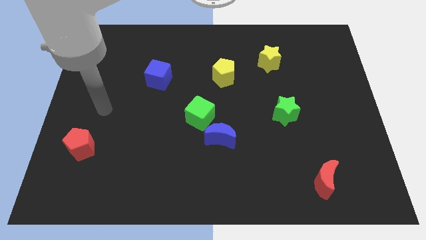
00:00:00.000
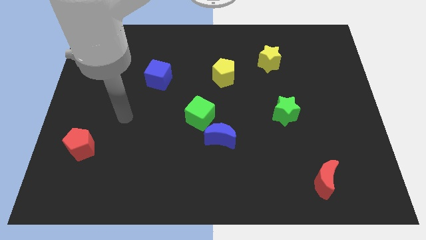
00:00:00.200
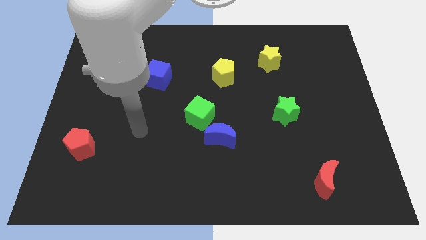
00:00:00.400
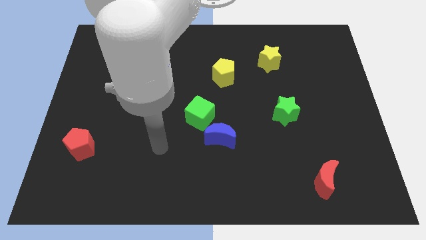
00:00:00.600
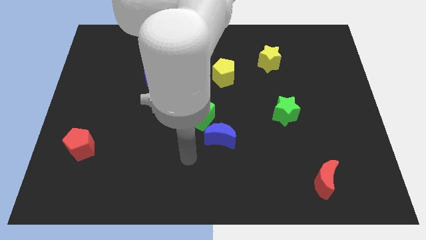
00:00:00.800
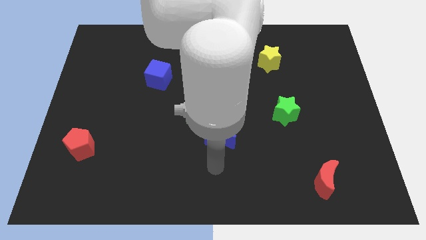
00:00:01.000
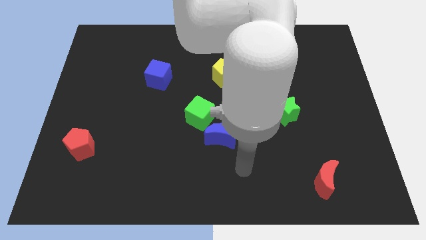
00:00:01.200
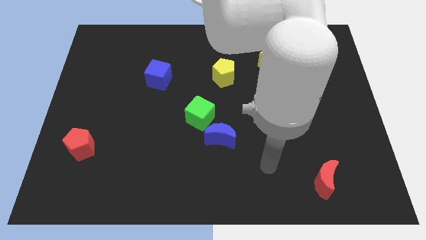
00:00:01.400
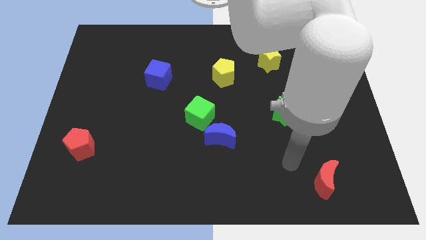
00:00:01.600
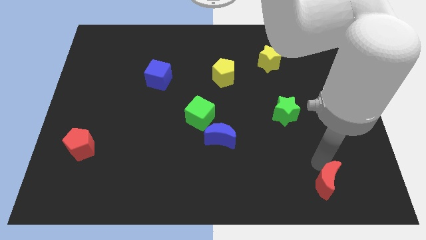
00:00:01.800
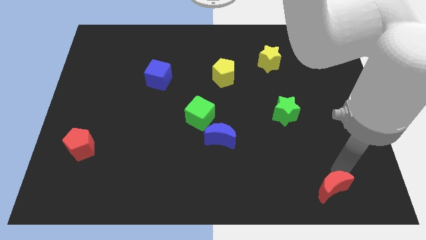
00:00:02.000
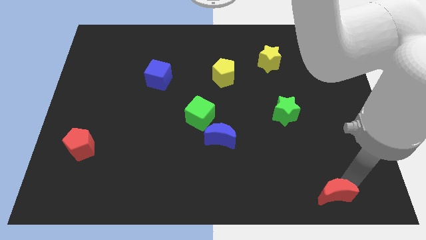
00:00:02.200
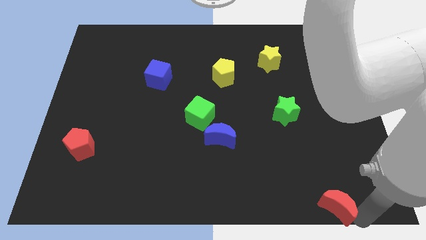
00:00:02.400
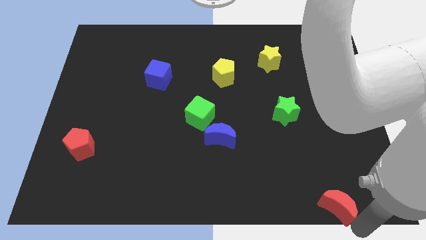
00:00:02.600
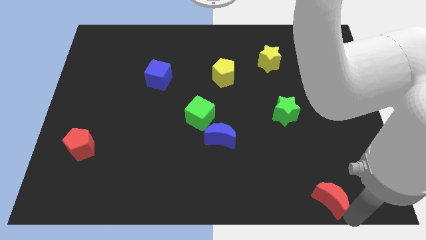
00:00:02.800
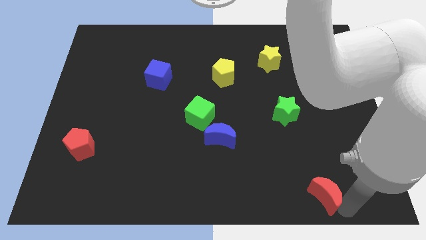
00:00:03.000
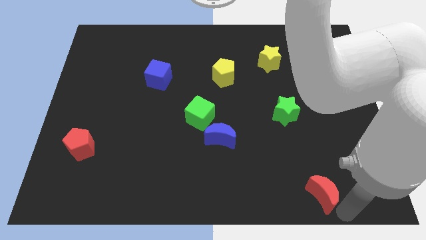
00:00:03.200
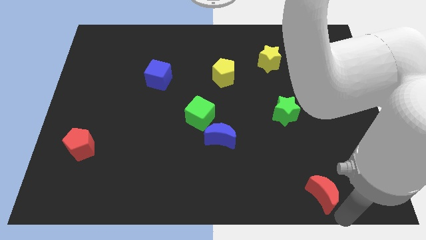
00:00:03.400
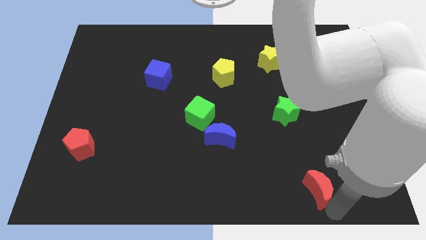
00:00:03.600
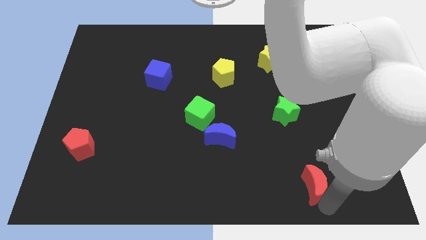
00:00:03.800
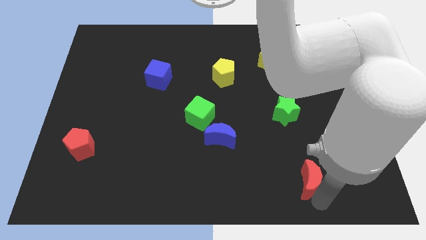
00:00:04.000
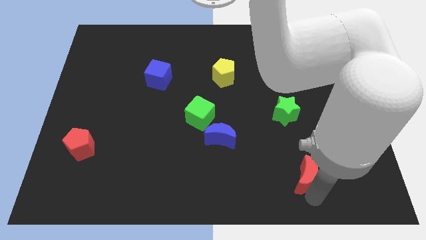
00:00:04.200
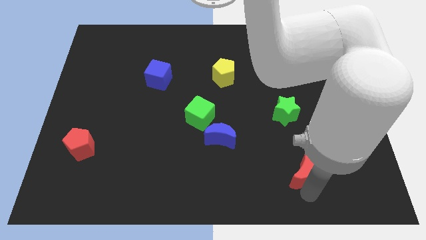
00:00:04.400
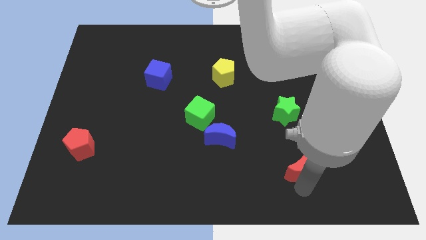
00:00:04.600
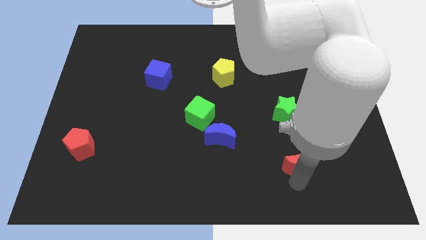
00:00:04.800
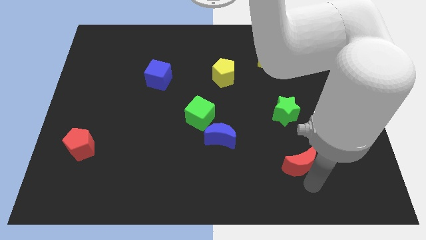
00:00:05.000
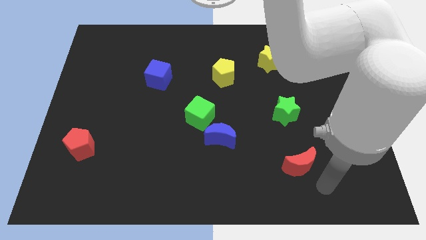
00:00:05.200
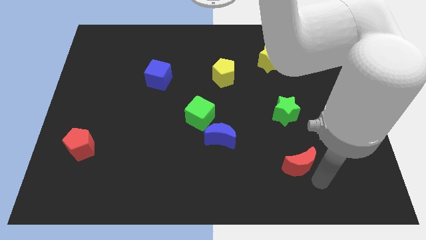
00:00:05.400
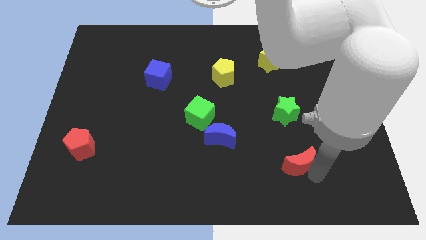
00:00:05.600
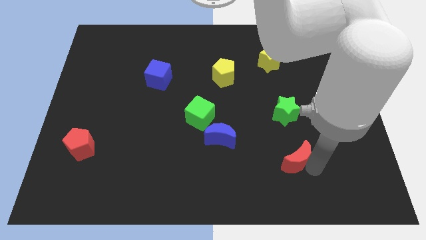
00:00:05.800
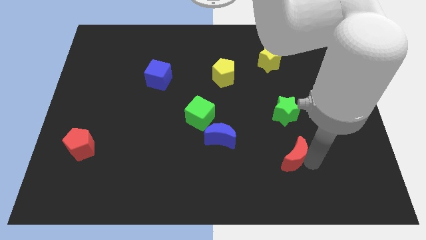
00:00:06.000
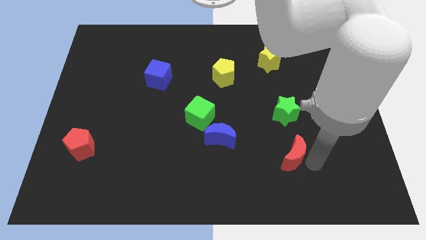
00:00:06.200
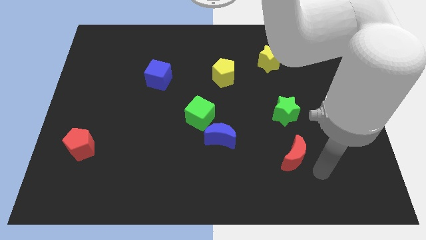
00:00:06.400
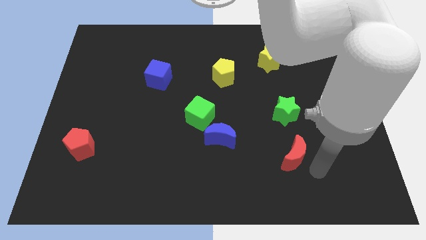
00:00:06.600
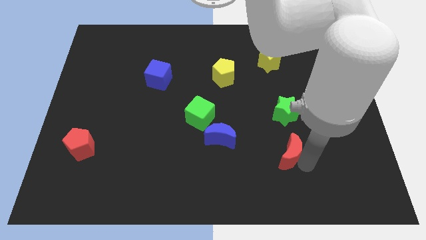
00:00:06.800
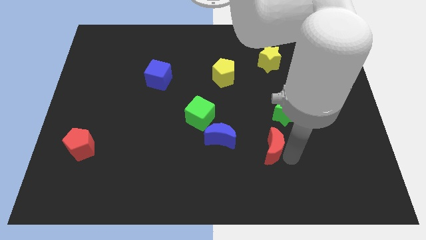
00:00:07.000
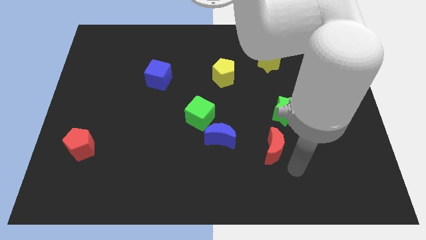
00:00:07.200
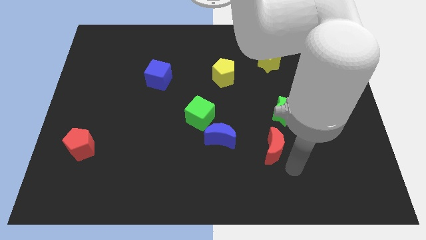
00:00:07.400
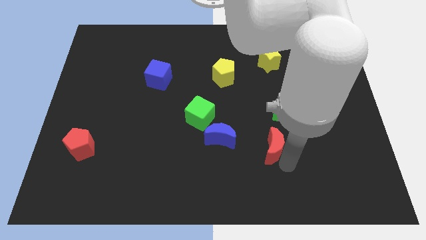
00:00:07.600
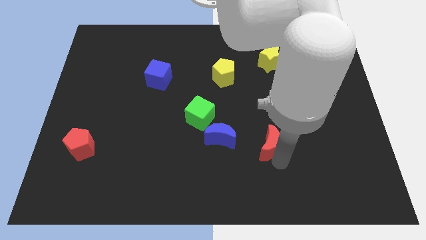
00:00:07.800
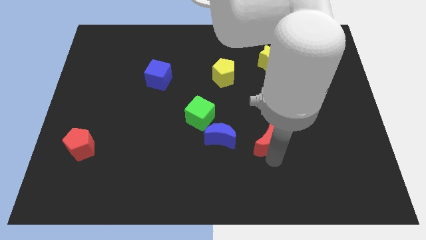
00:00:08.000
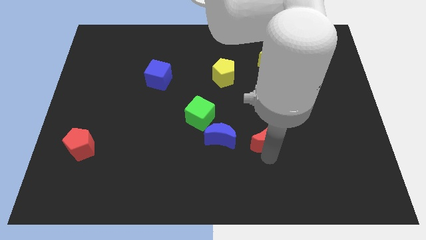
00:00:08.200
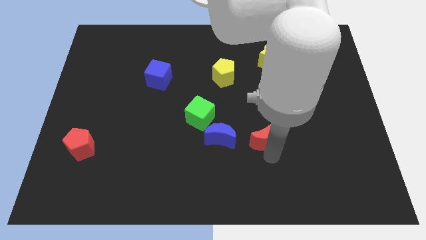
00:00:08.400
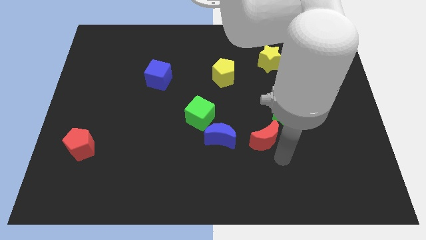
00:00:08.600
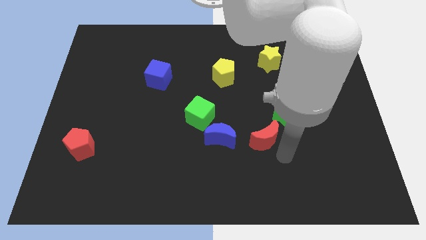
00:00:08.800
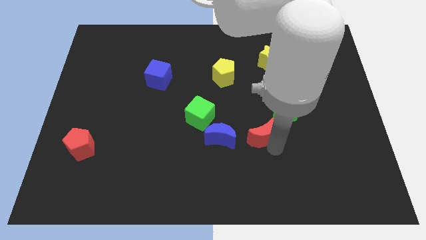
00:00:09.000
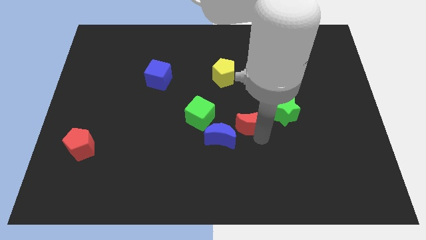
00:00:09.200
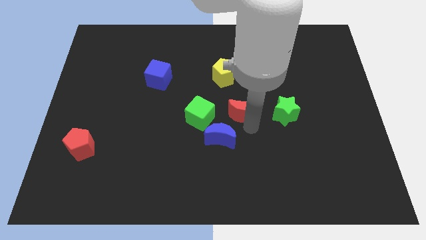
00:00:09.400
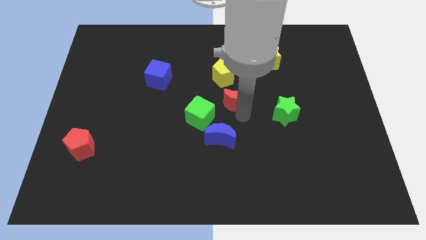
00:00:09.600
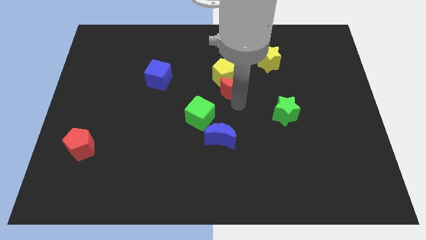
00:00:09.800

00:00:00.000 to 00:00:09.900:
slide the red moon to the yellow pentagon

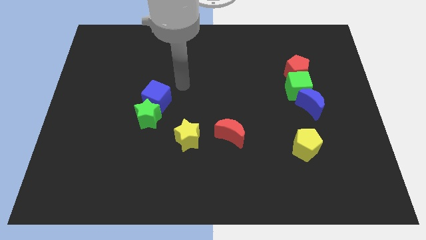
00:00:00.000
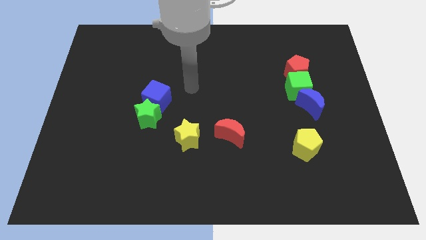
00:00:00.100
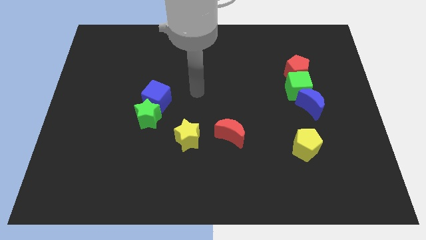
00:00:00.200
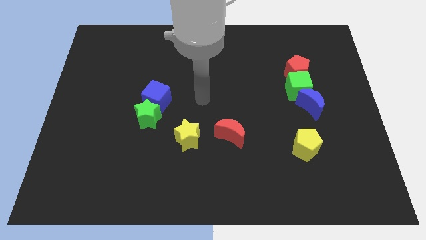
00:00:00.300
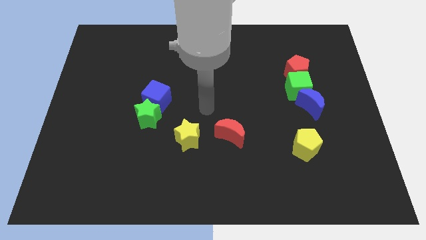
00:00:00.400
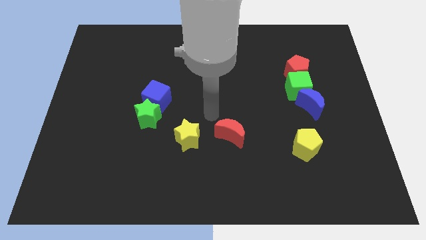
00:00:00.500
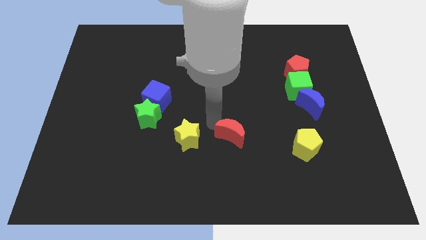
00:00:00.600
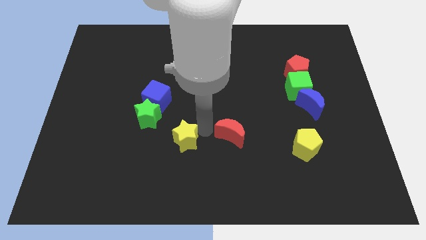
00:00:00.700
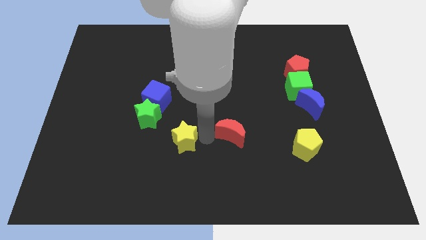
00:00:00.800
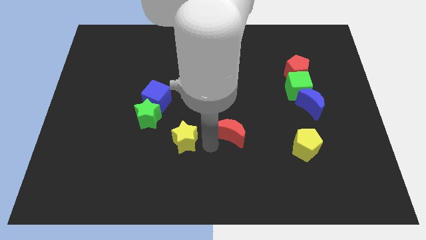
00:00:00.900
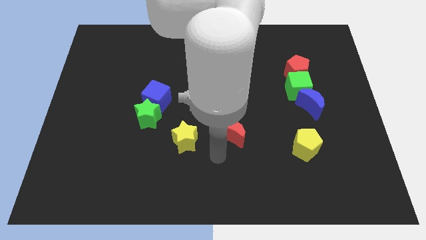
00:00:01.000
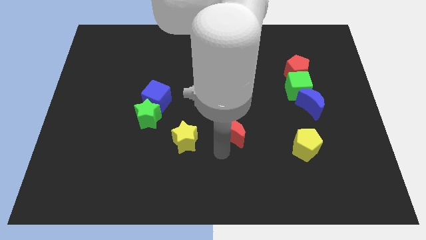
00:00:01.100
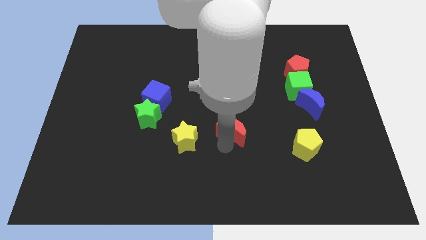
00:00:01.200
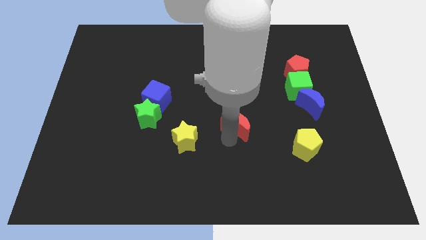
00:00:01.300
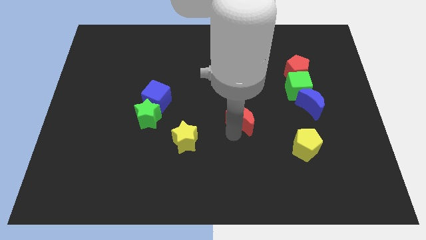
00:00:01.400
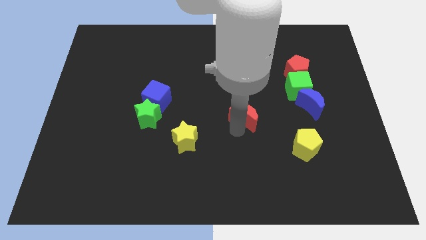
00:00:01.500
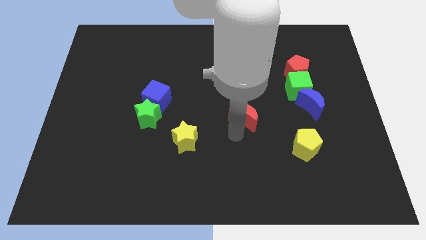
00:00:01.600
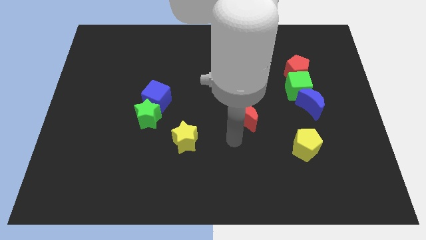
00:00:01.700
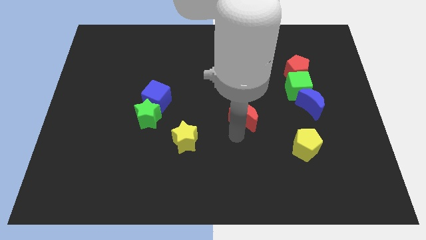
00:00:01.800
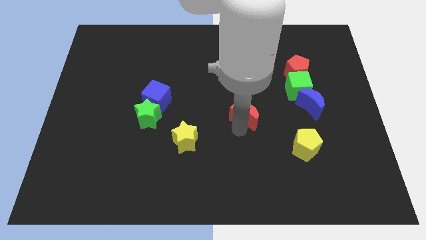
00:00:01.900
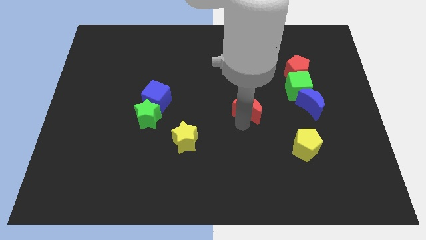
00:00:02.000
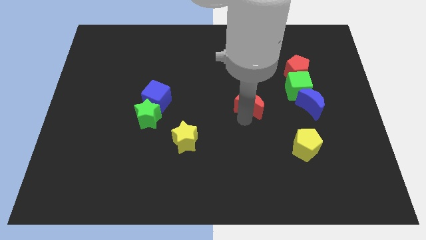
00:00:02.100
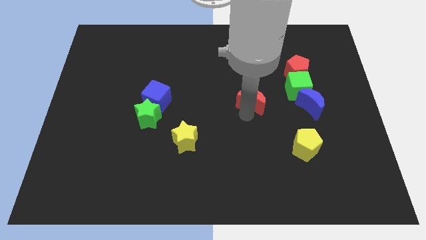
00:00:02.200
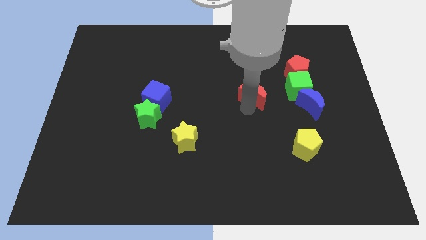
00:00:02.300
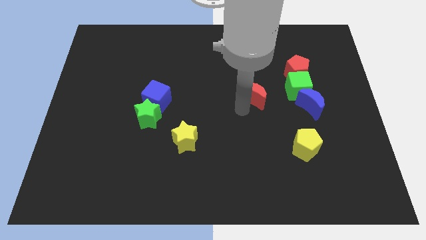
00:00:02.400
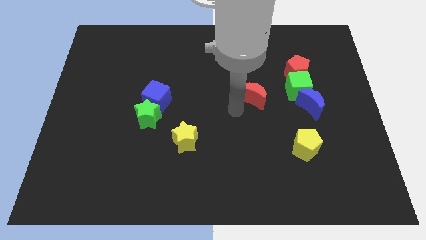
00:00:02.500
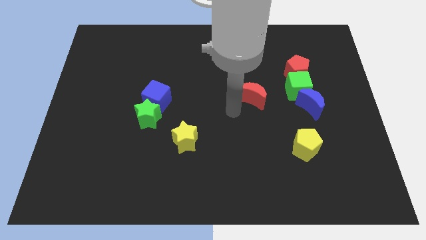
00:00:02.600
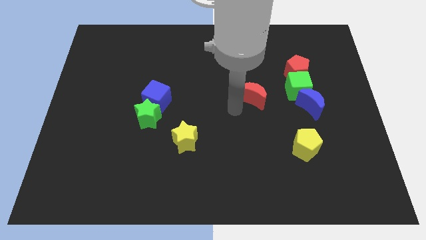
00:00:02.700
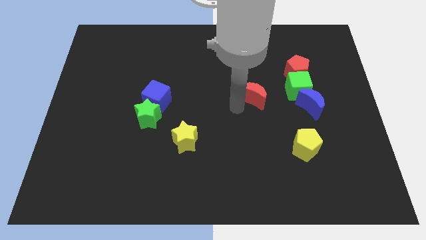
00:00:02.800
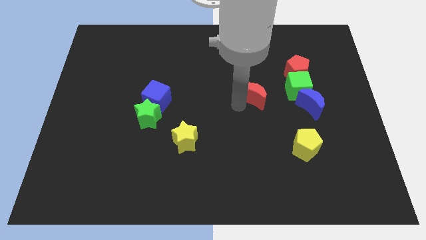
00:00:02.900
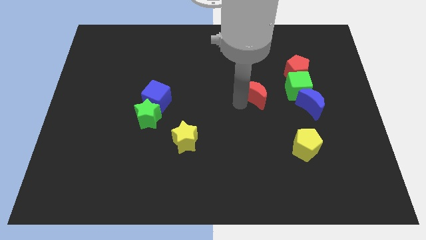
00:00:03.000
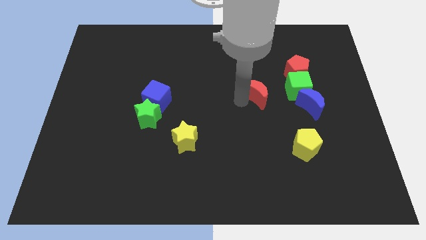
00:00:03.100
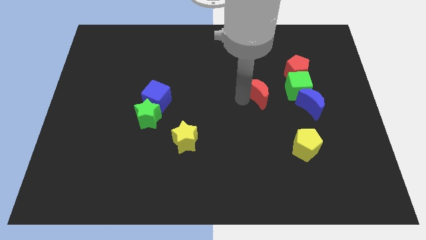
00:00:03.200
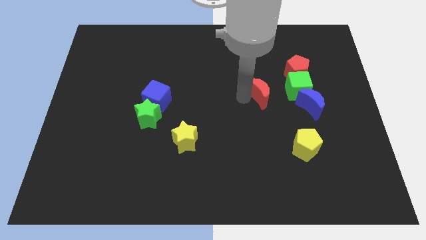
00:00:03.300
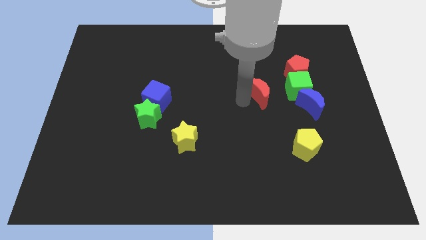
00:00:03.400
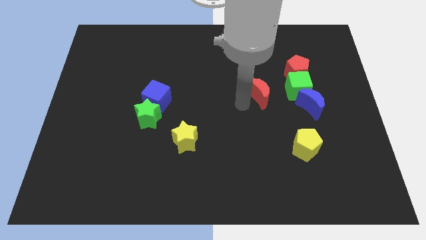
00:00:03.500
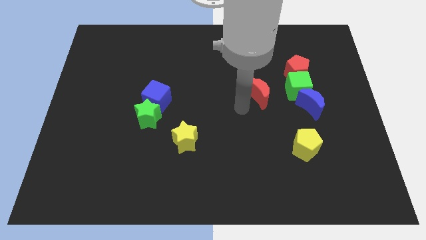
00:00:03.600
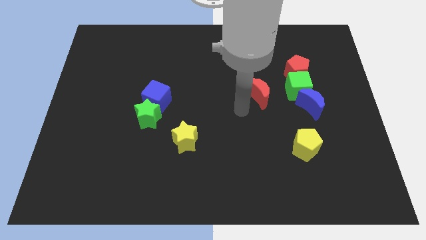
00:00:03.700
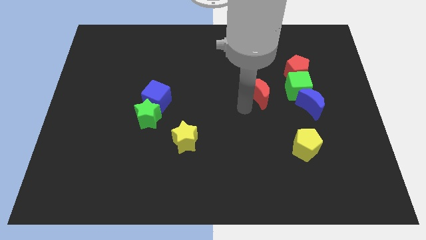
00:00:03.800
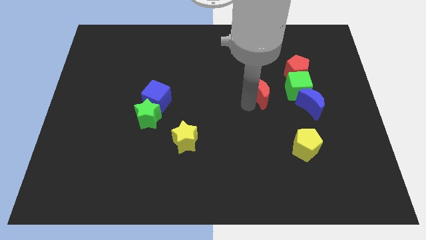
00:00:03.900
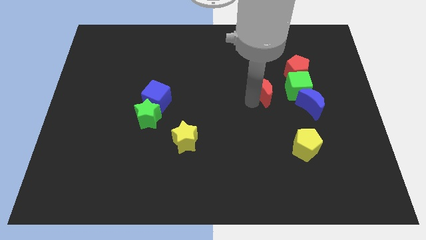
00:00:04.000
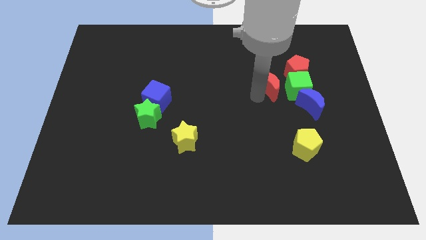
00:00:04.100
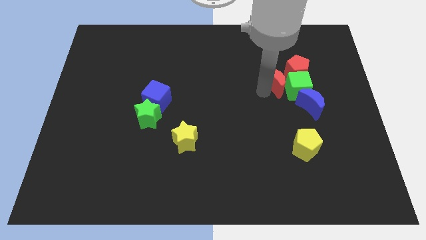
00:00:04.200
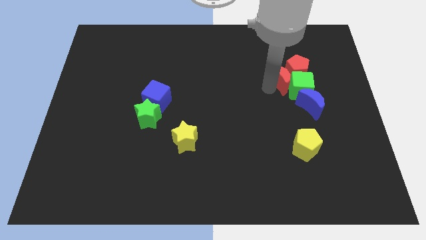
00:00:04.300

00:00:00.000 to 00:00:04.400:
move the red moon close to the red pentagon
